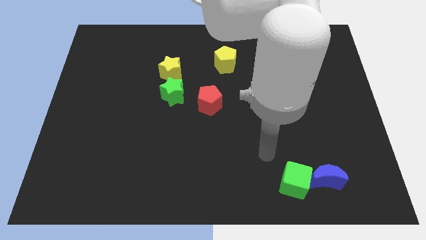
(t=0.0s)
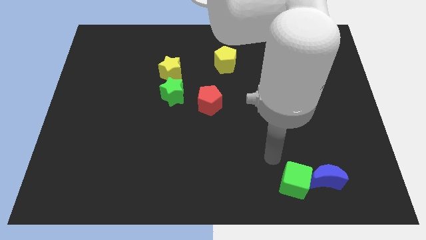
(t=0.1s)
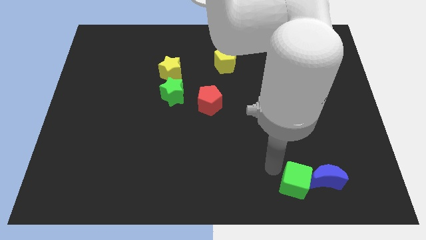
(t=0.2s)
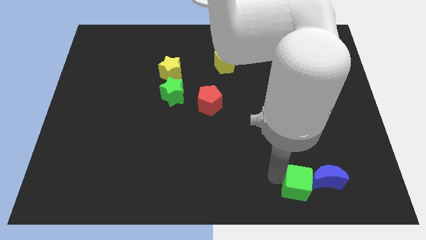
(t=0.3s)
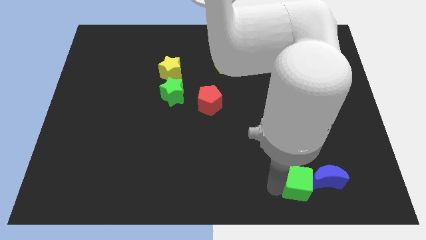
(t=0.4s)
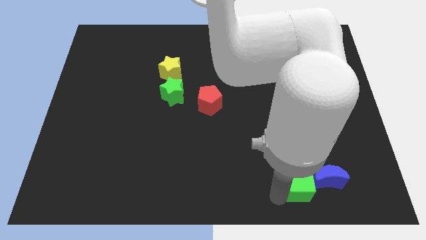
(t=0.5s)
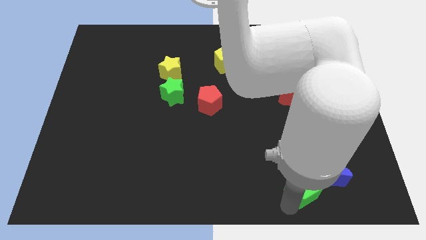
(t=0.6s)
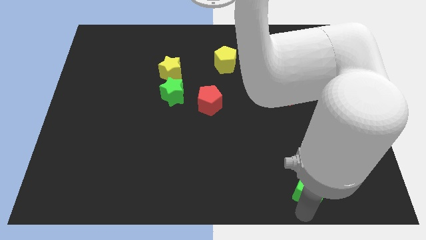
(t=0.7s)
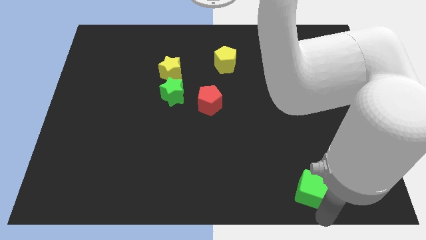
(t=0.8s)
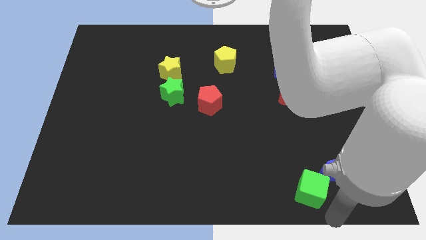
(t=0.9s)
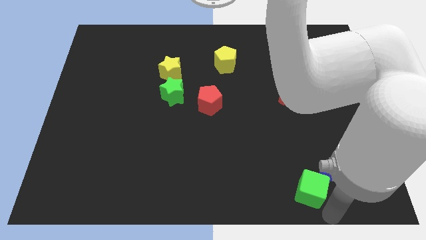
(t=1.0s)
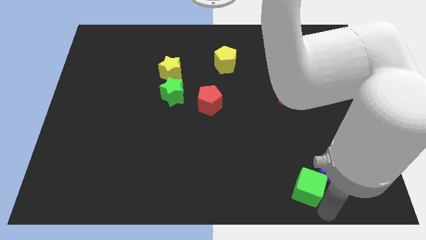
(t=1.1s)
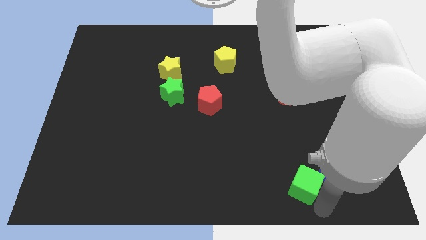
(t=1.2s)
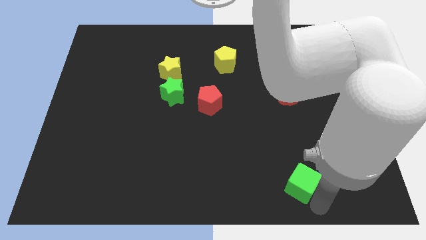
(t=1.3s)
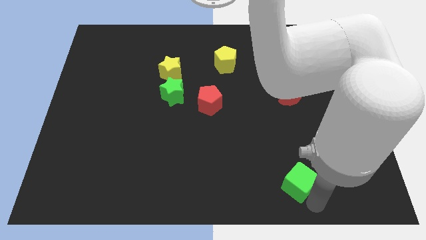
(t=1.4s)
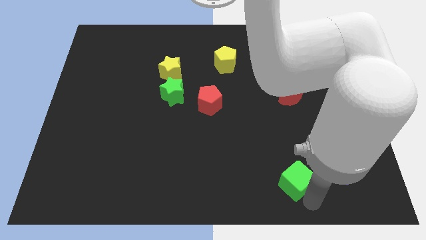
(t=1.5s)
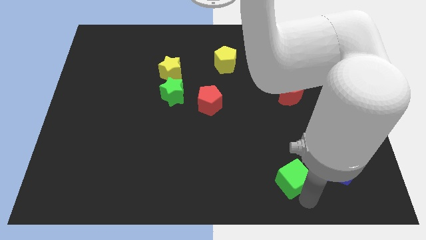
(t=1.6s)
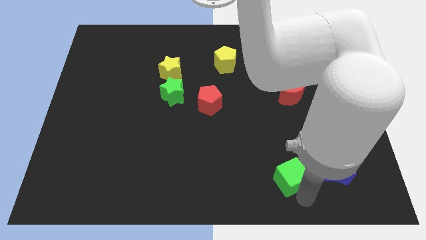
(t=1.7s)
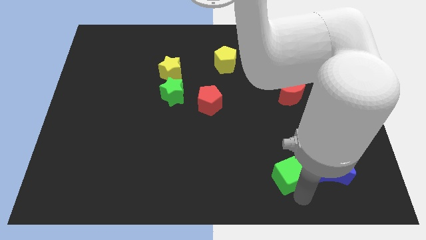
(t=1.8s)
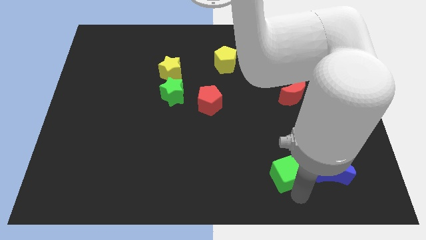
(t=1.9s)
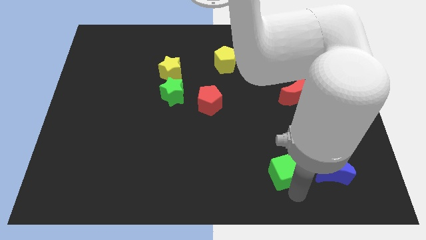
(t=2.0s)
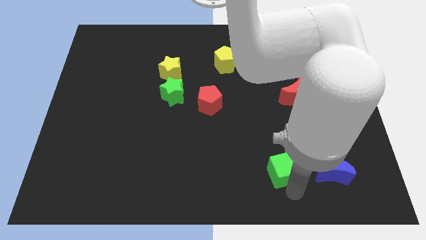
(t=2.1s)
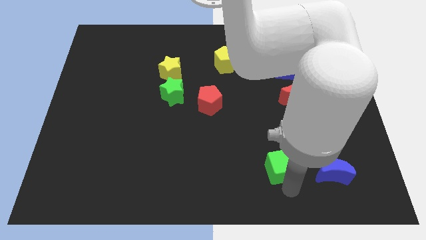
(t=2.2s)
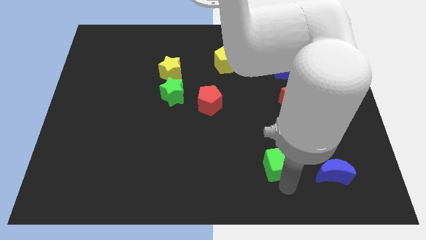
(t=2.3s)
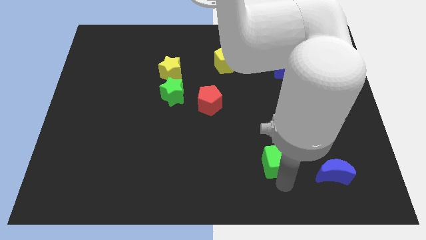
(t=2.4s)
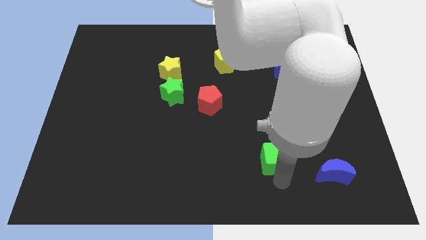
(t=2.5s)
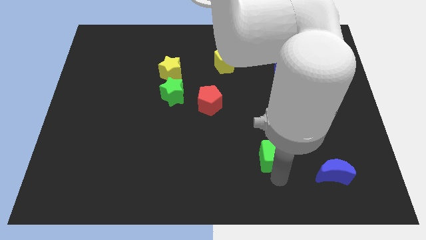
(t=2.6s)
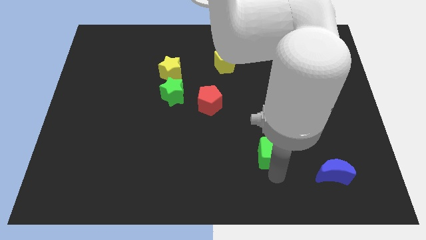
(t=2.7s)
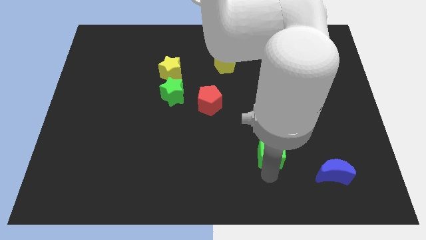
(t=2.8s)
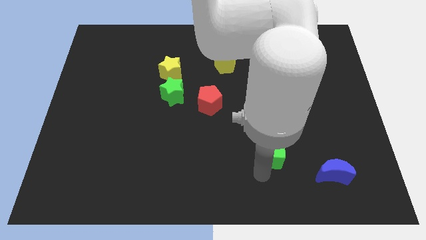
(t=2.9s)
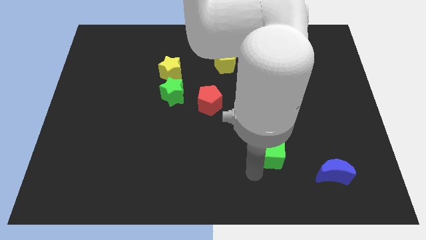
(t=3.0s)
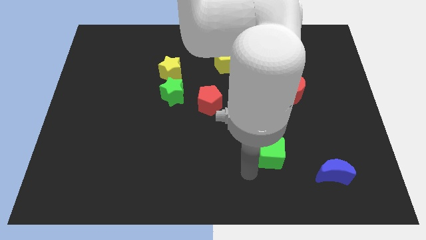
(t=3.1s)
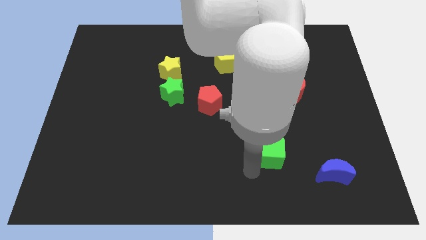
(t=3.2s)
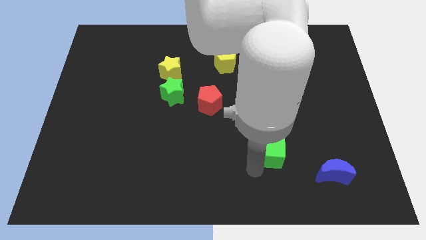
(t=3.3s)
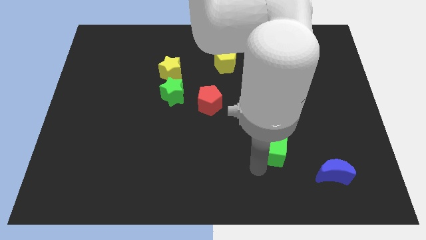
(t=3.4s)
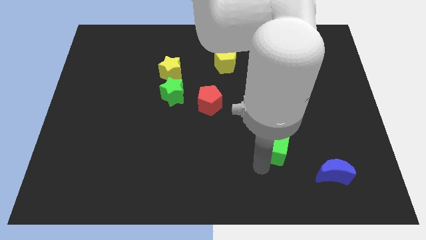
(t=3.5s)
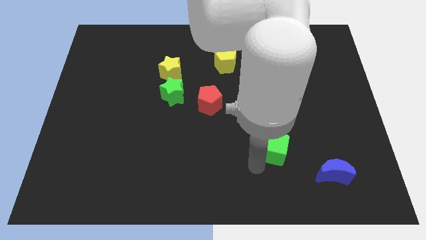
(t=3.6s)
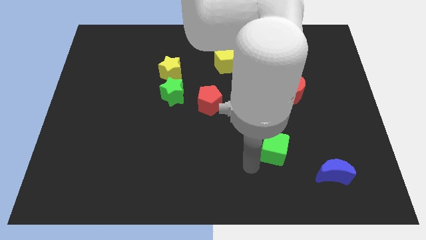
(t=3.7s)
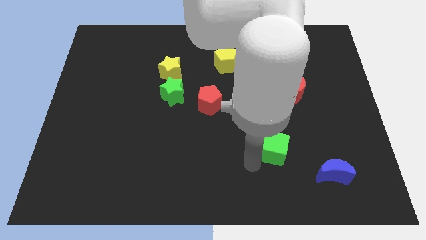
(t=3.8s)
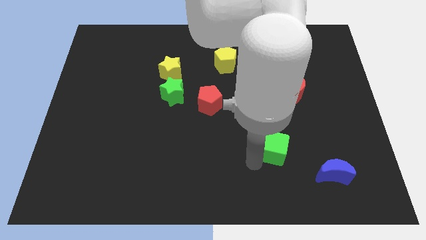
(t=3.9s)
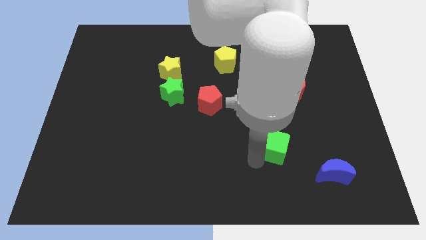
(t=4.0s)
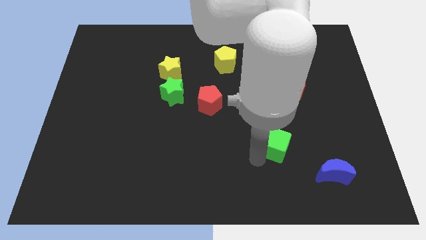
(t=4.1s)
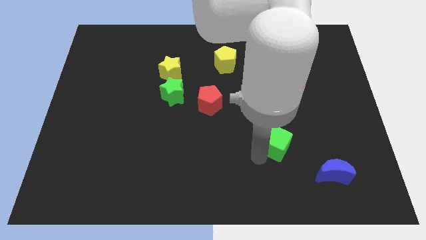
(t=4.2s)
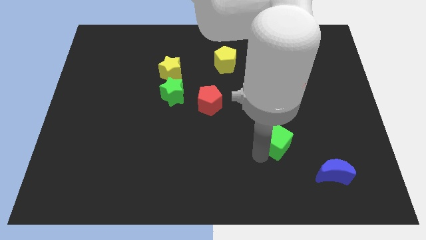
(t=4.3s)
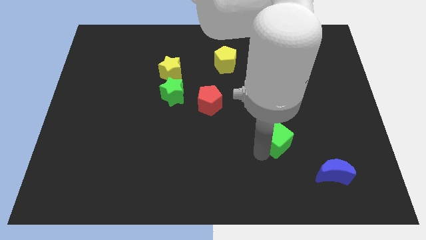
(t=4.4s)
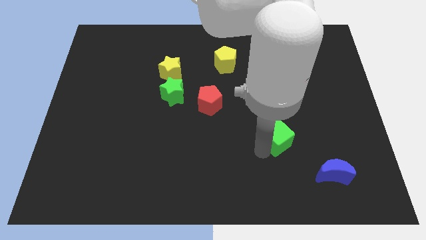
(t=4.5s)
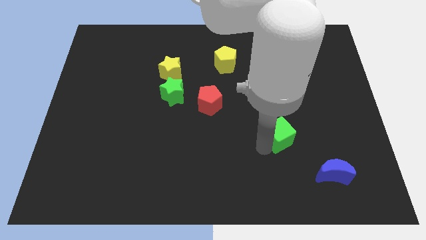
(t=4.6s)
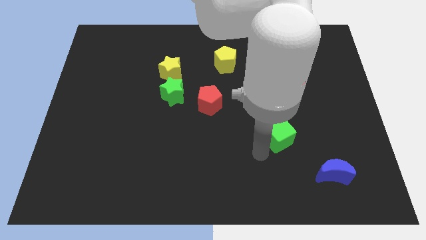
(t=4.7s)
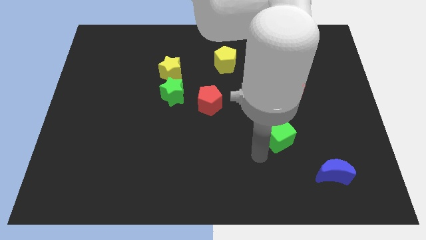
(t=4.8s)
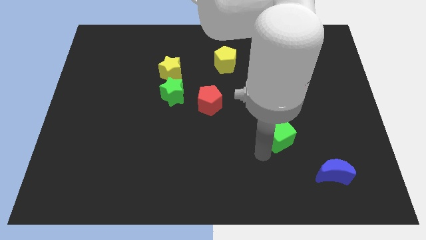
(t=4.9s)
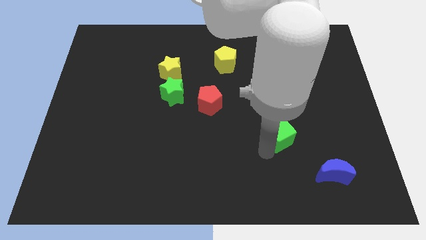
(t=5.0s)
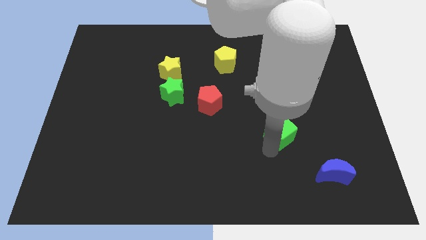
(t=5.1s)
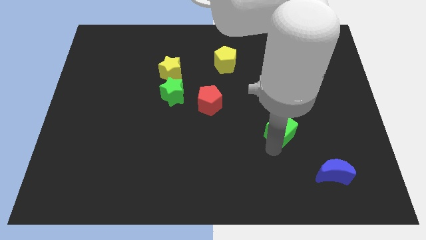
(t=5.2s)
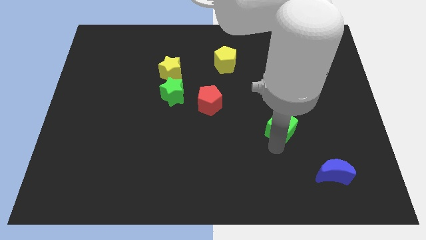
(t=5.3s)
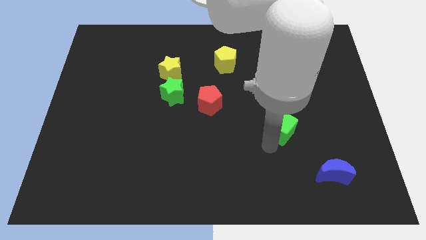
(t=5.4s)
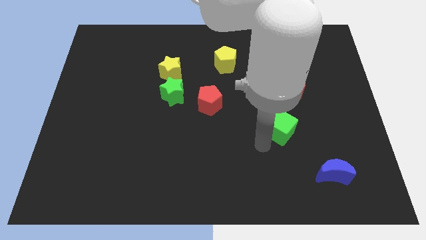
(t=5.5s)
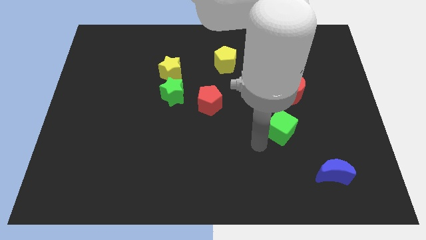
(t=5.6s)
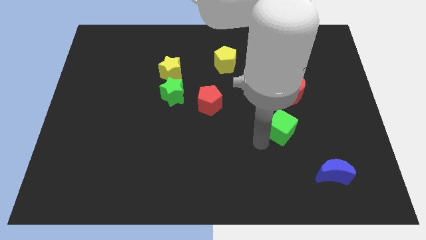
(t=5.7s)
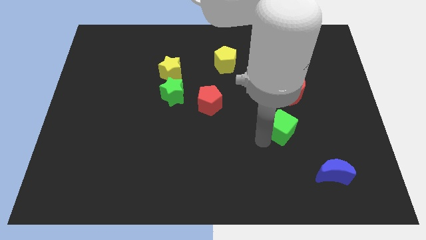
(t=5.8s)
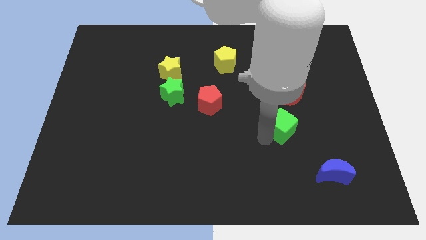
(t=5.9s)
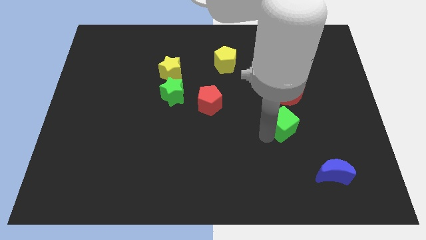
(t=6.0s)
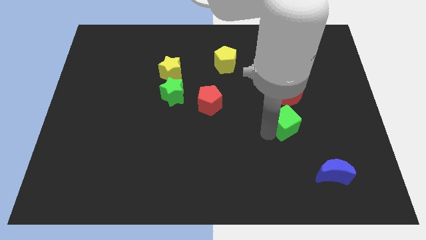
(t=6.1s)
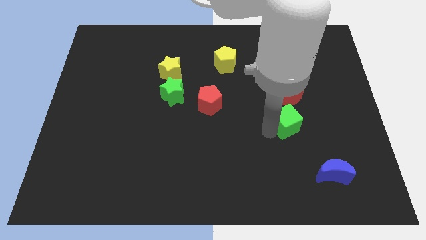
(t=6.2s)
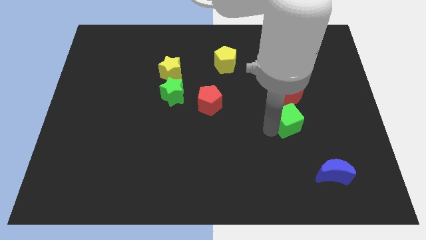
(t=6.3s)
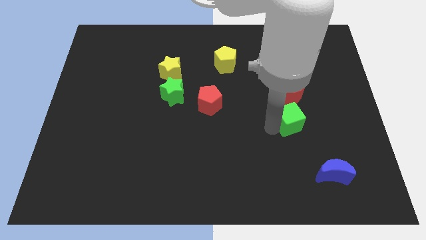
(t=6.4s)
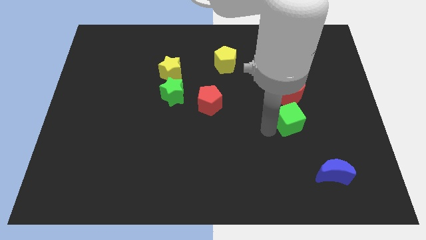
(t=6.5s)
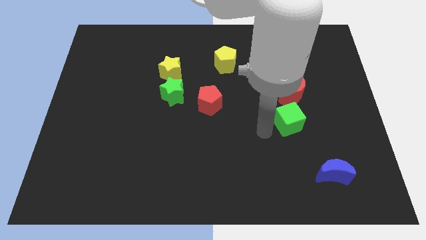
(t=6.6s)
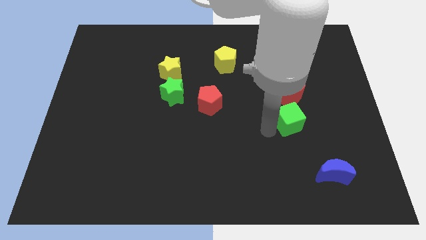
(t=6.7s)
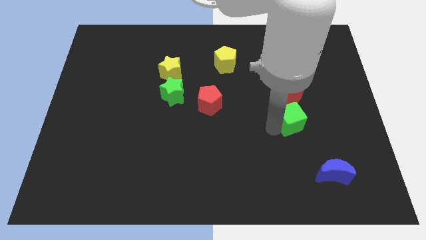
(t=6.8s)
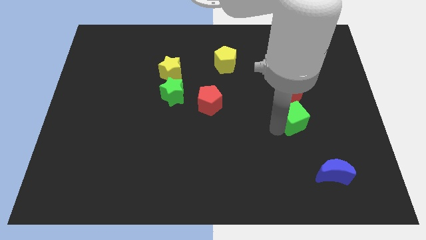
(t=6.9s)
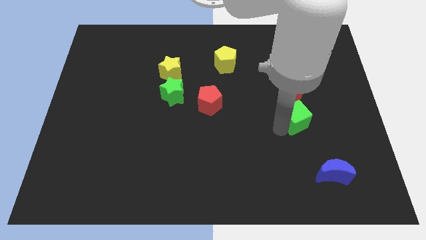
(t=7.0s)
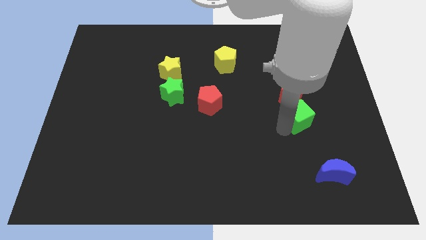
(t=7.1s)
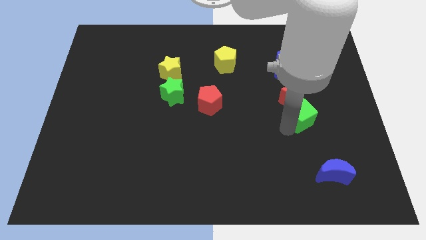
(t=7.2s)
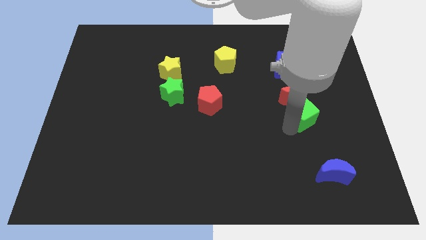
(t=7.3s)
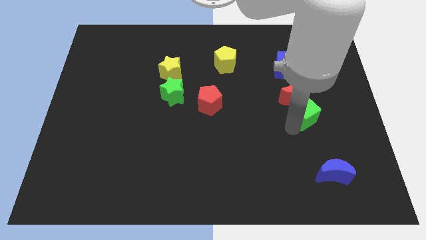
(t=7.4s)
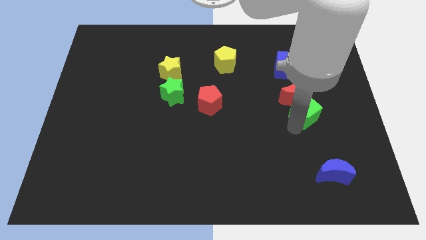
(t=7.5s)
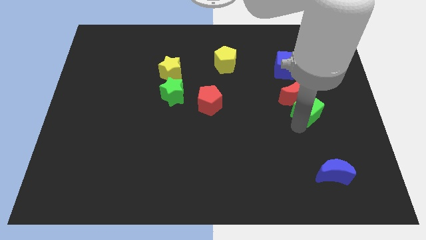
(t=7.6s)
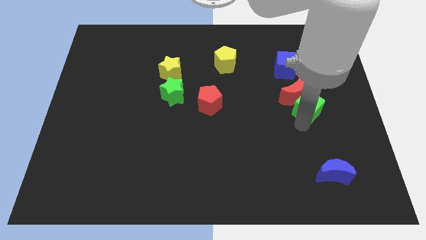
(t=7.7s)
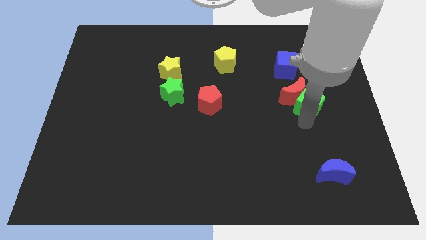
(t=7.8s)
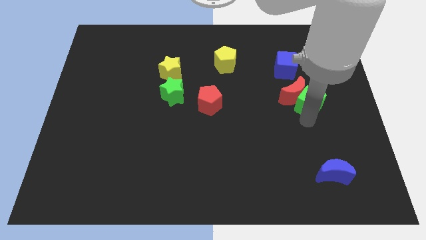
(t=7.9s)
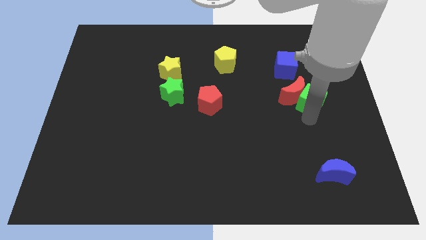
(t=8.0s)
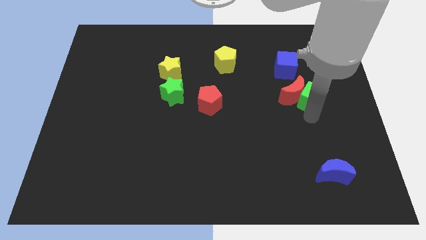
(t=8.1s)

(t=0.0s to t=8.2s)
slide the green cube diagonally down and to the right of the blue cube
